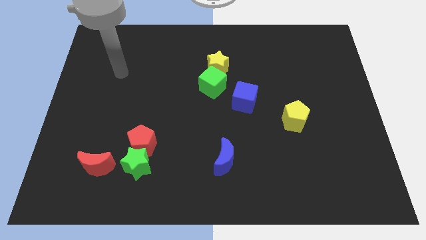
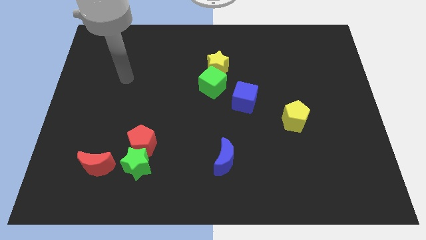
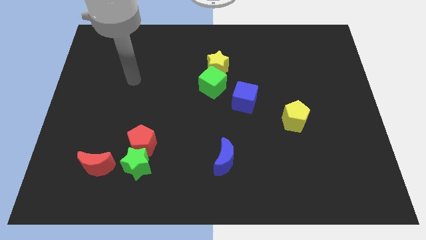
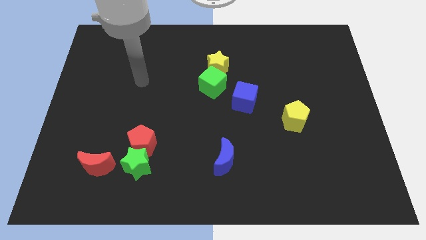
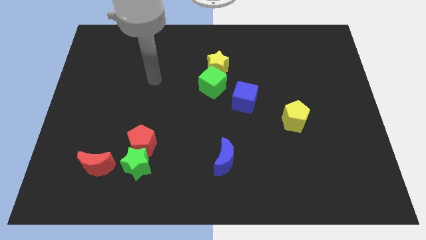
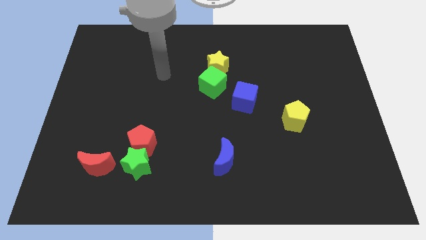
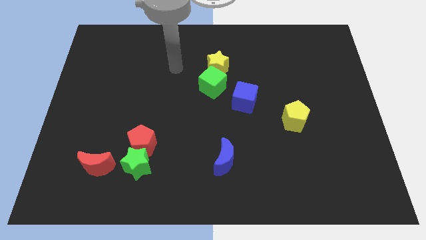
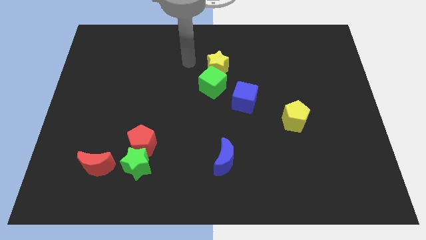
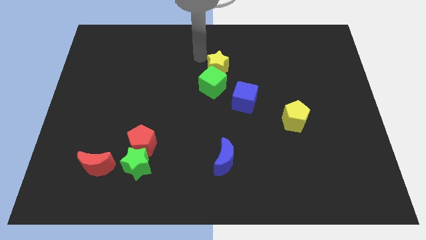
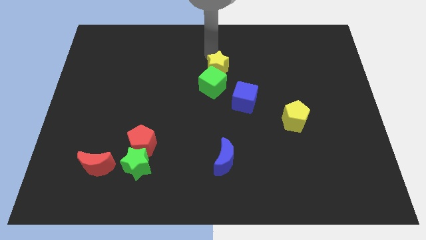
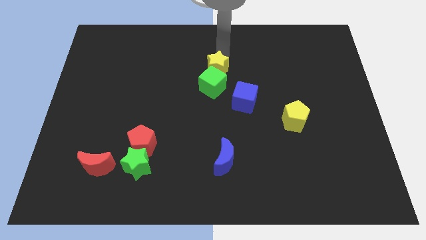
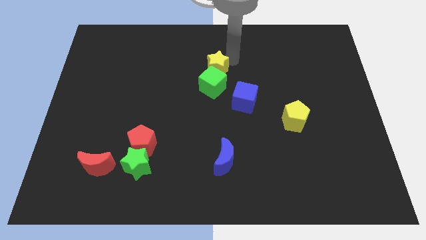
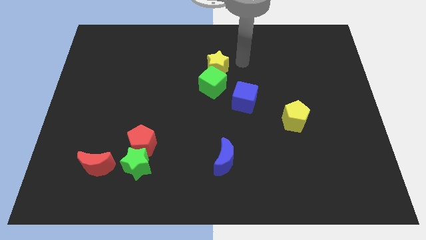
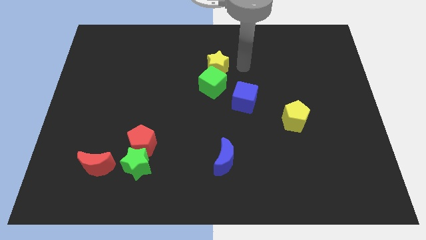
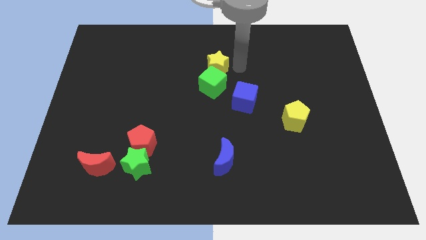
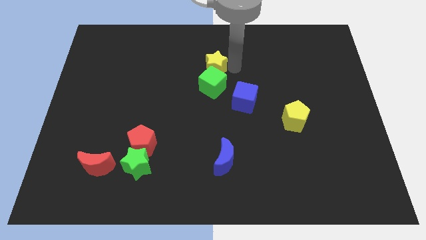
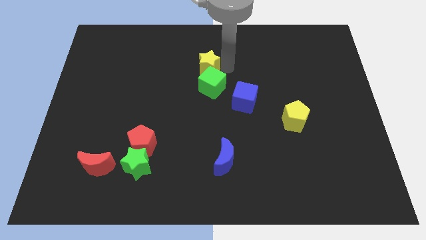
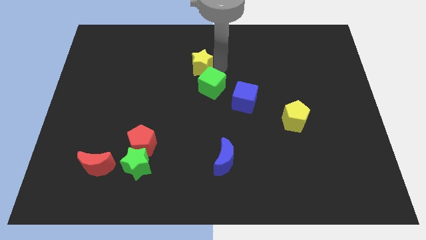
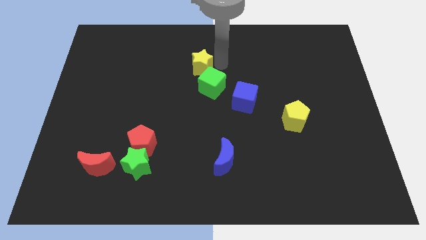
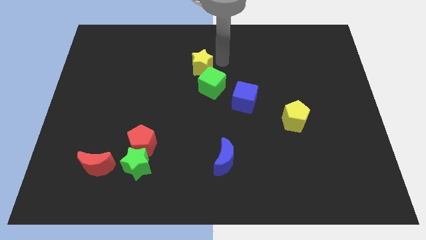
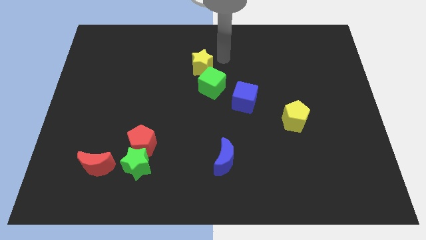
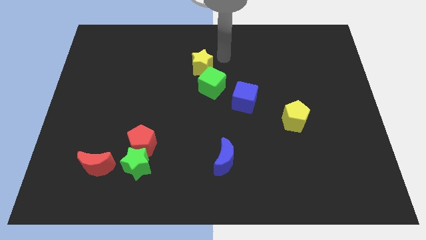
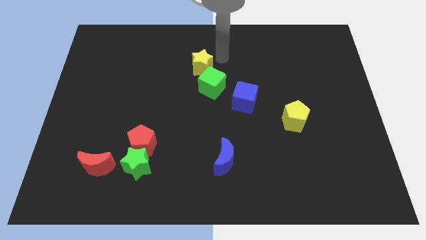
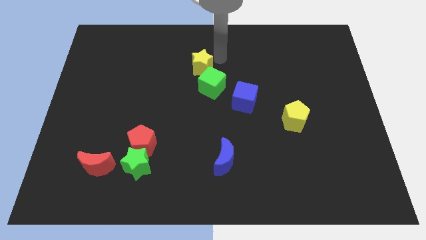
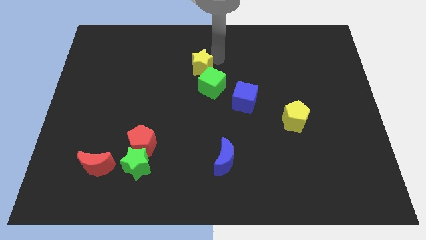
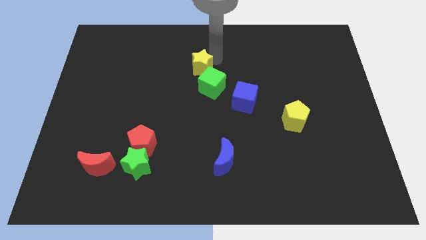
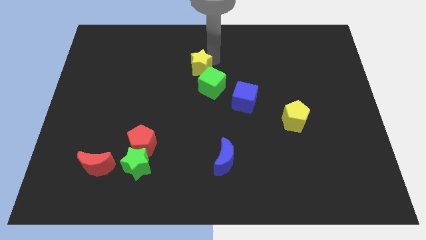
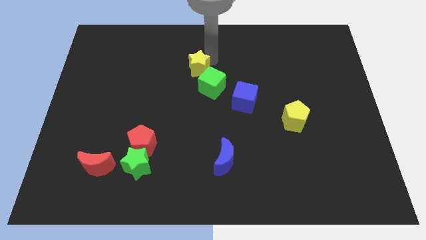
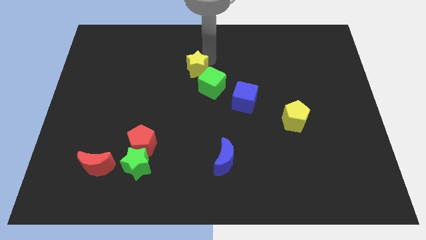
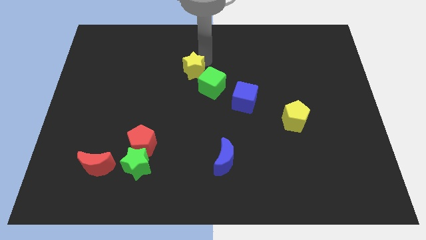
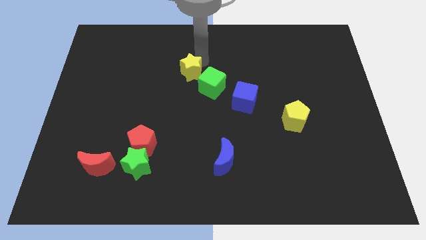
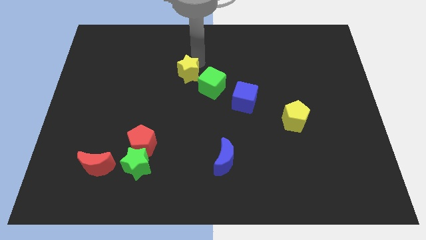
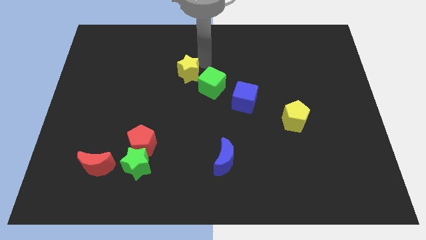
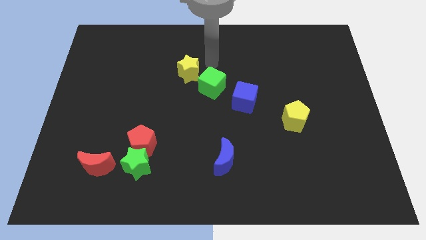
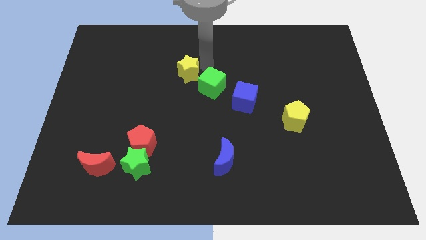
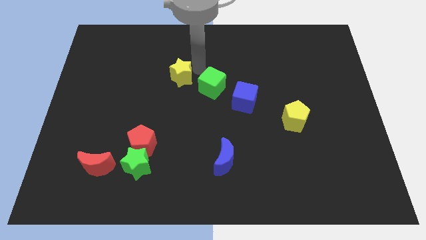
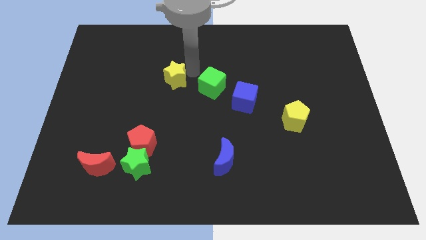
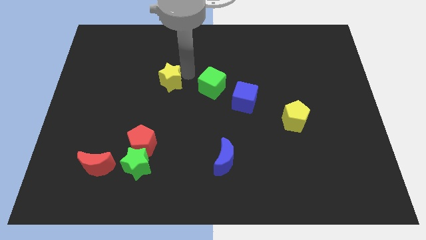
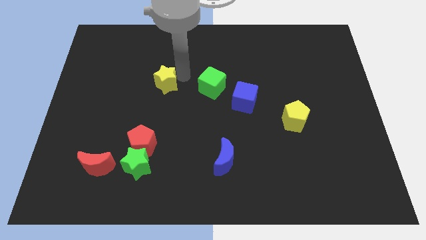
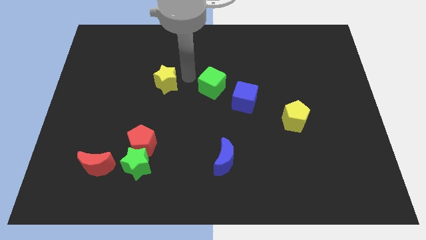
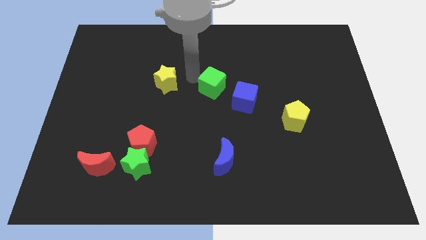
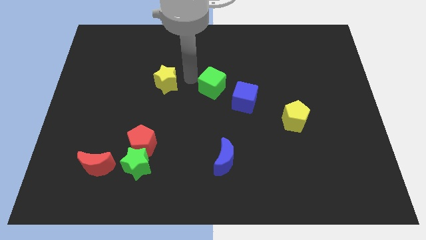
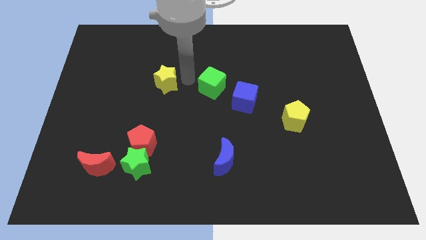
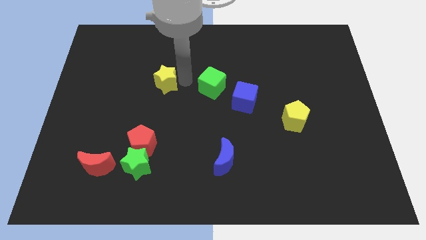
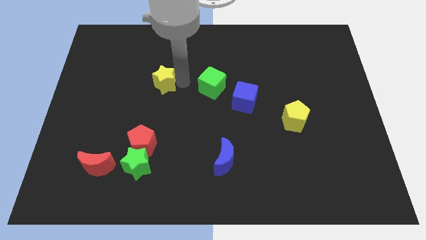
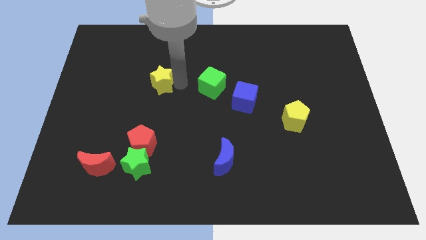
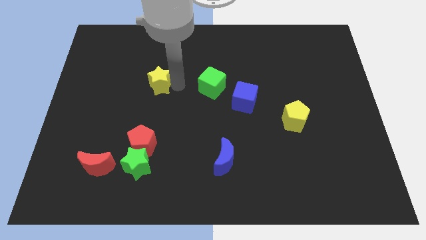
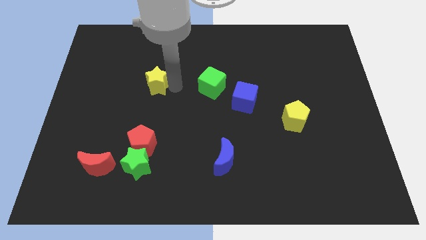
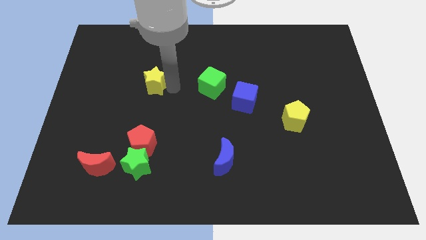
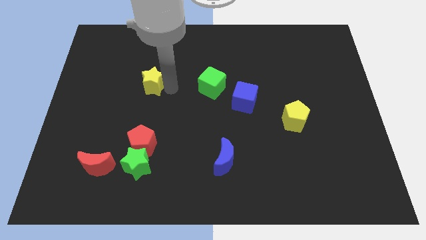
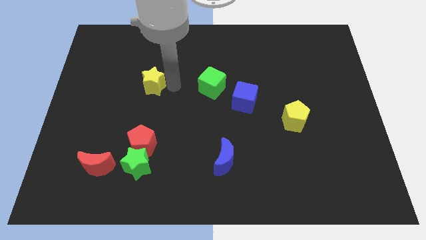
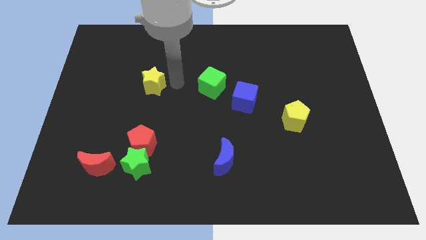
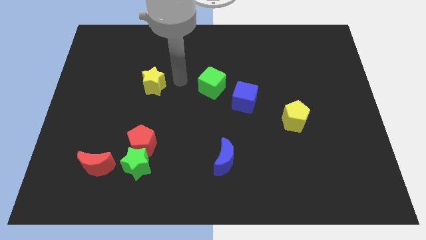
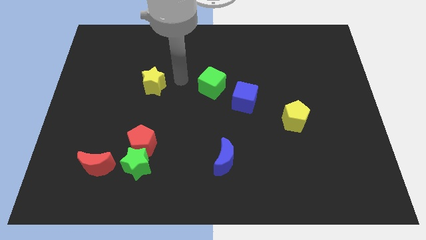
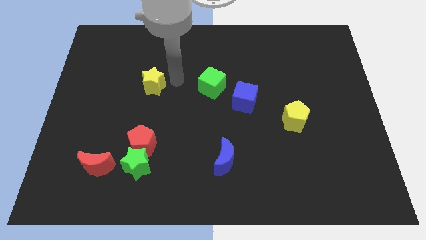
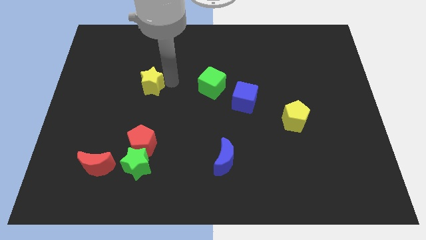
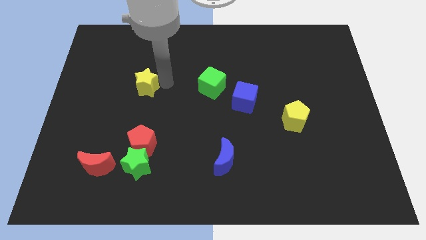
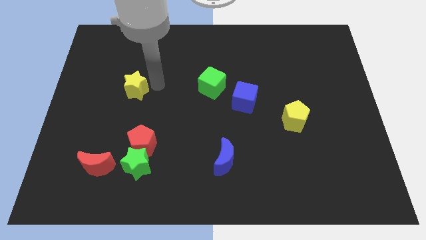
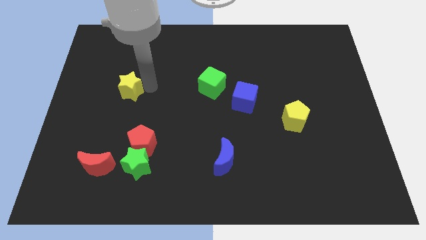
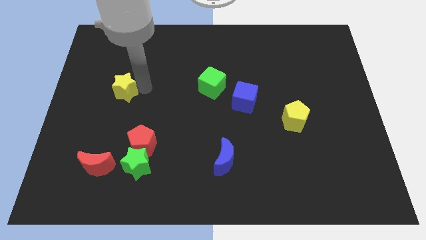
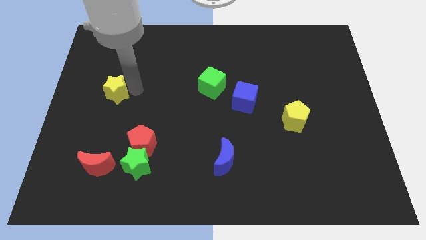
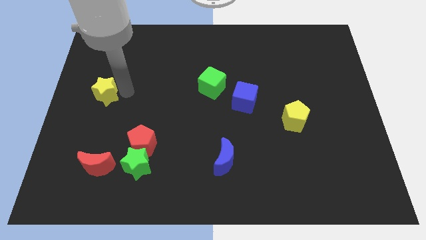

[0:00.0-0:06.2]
slide the yellow star to the left side
